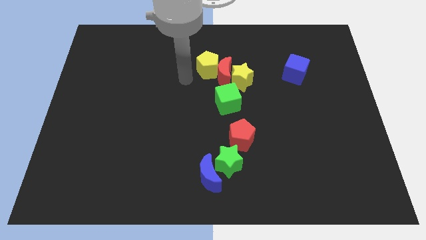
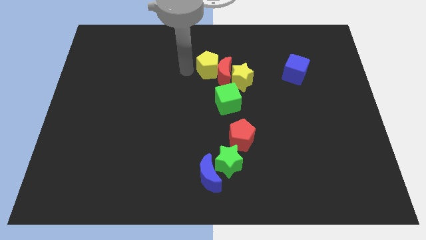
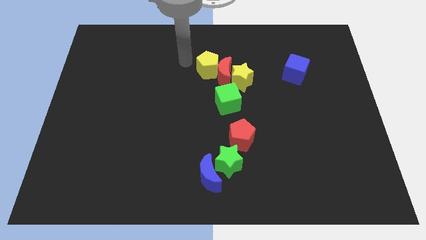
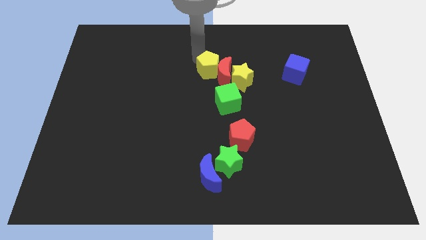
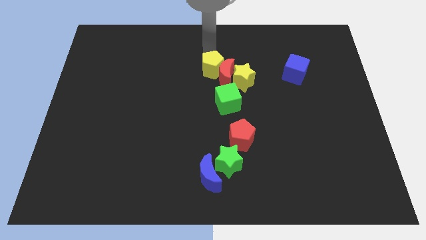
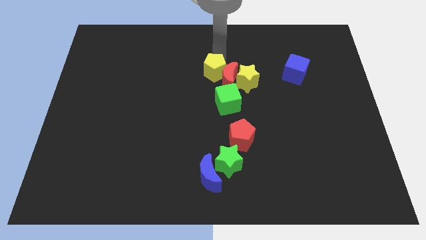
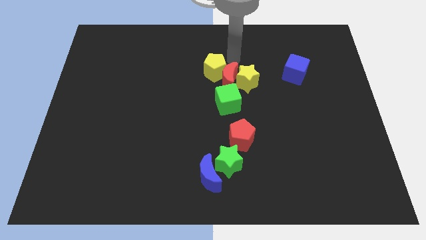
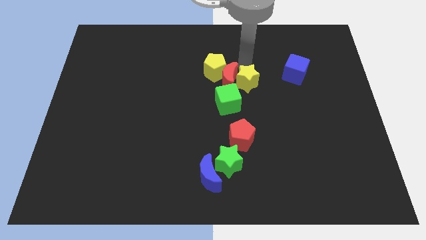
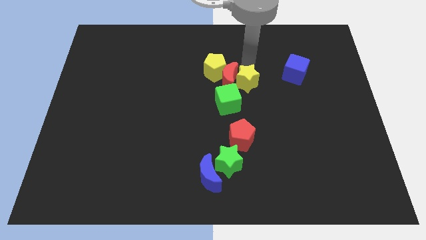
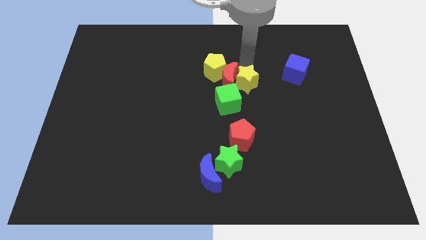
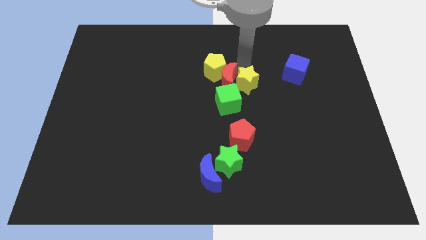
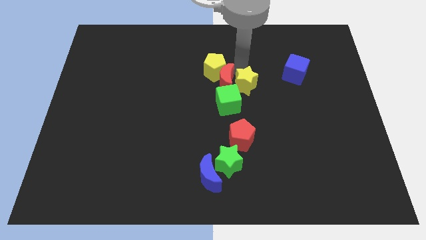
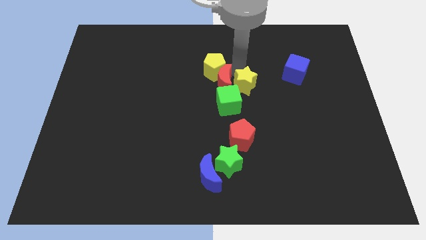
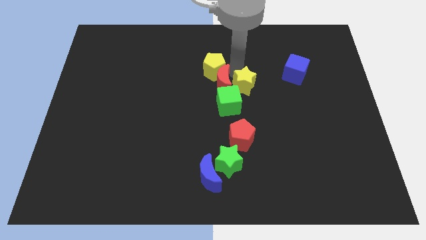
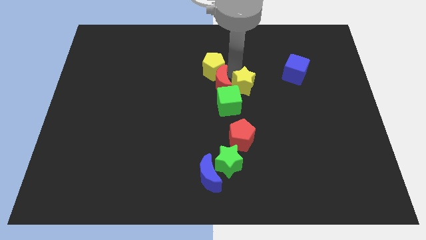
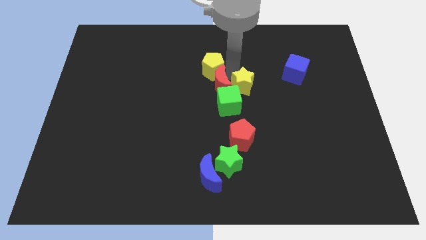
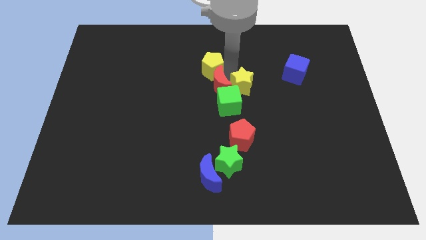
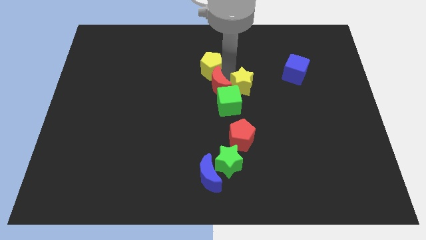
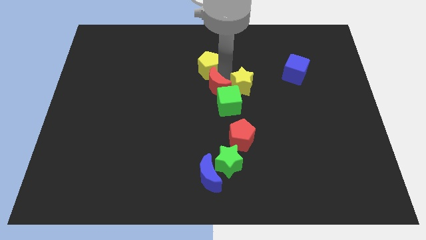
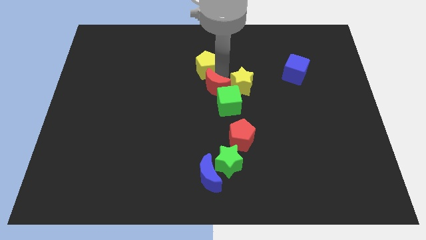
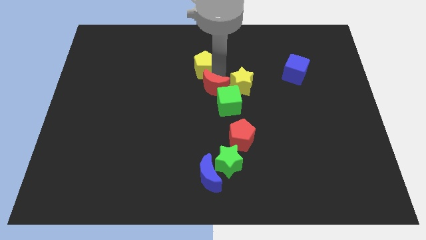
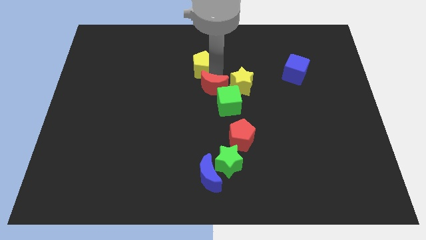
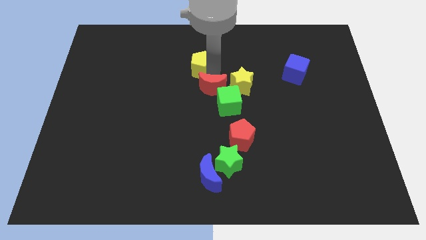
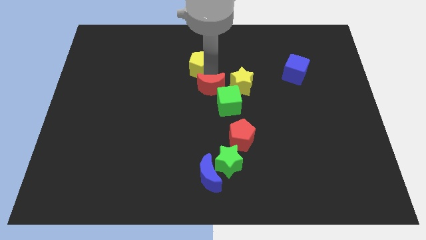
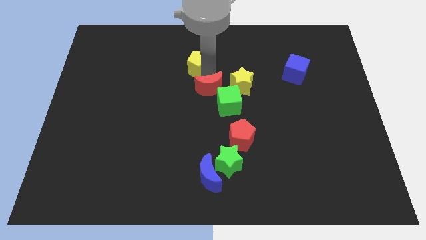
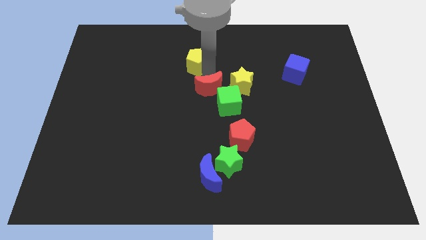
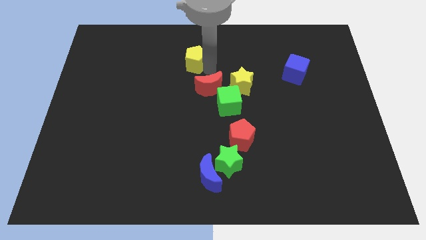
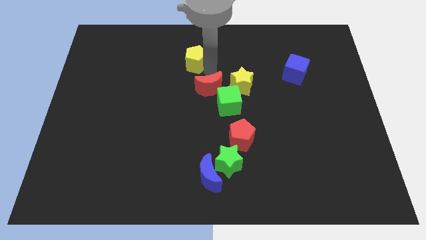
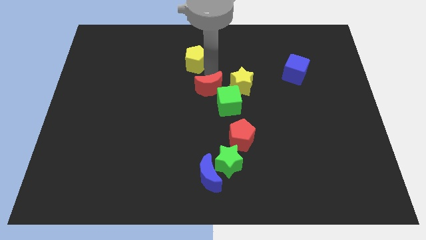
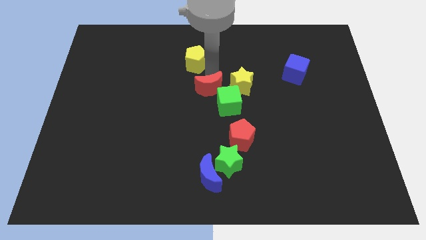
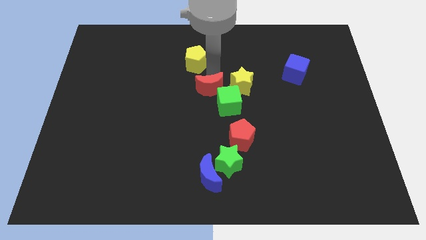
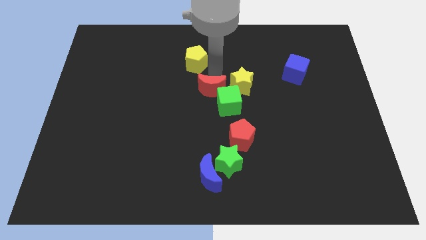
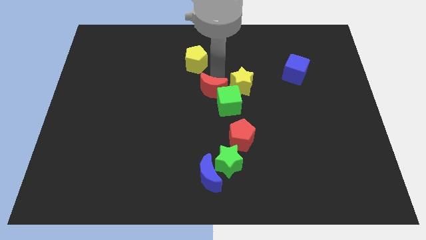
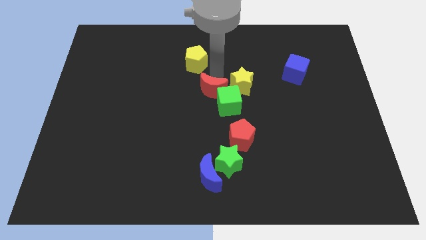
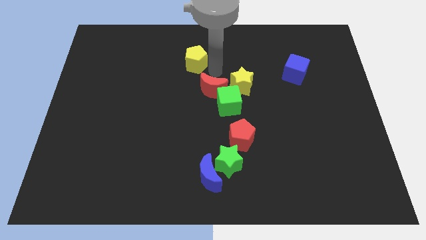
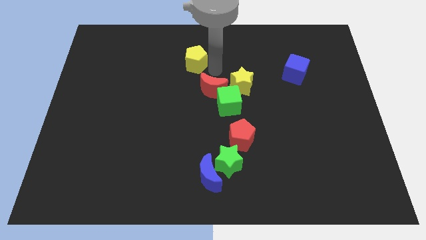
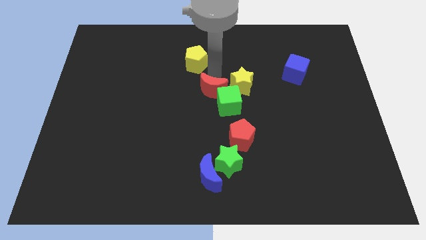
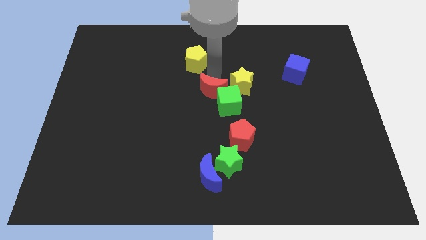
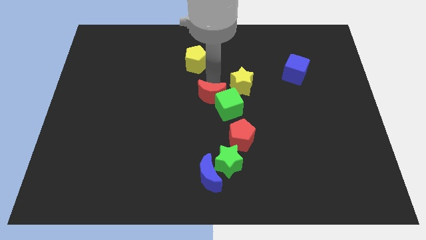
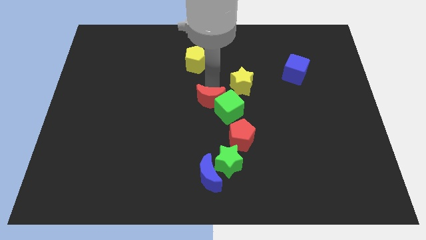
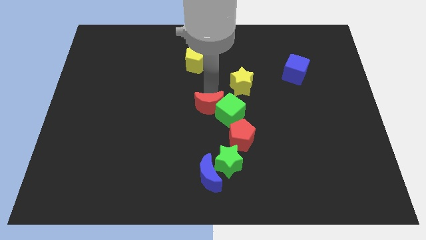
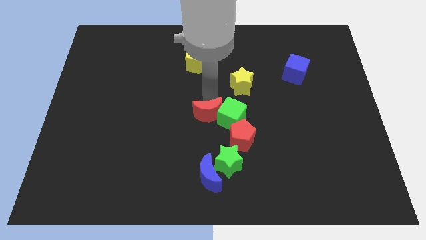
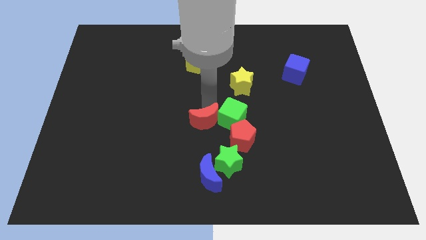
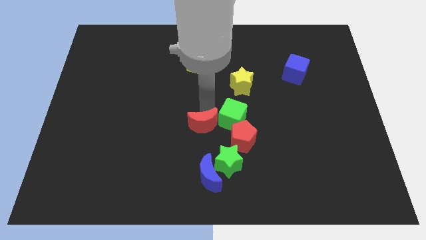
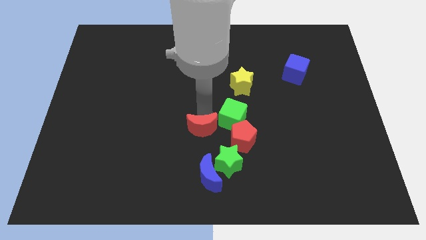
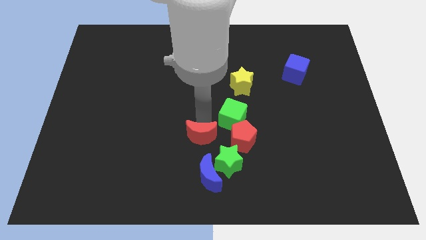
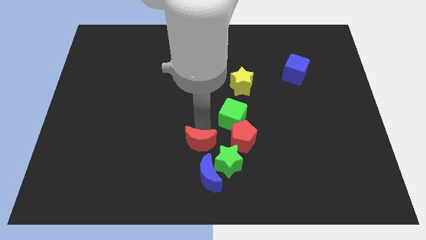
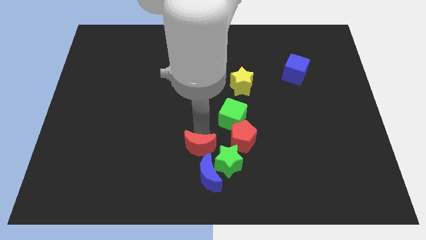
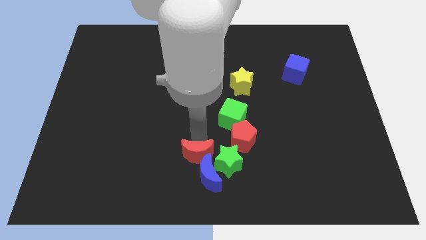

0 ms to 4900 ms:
put the red moon close to the blue moon

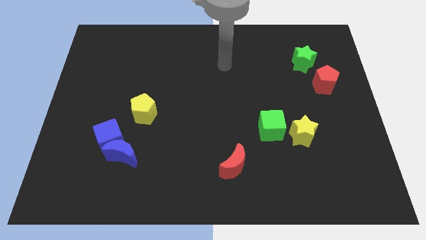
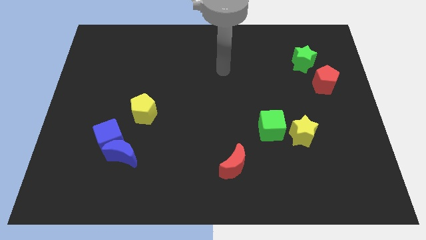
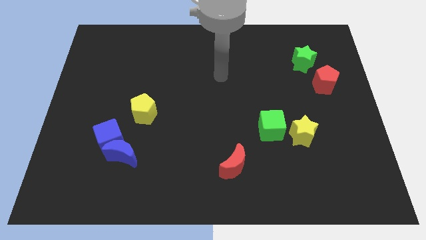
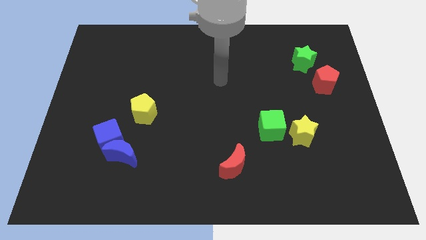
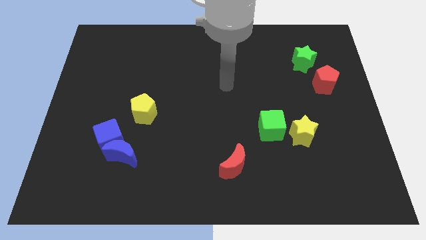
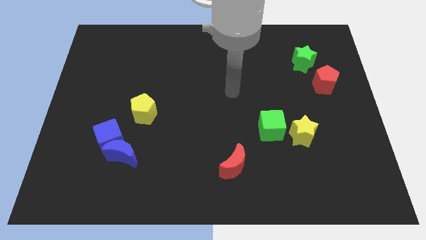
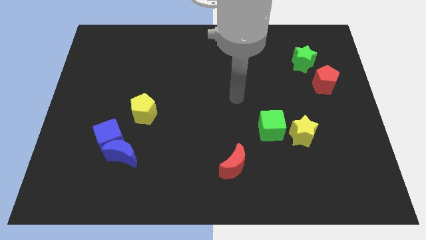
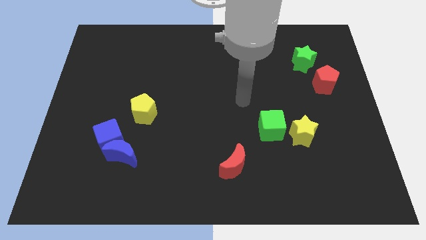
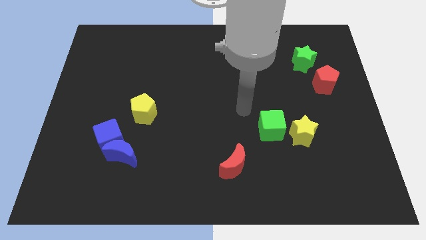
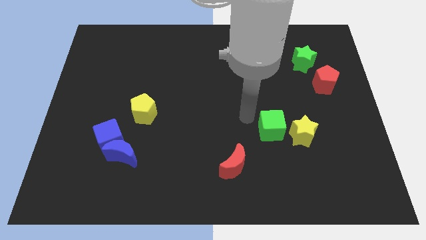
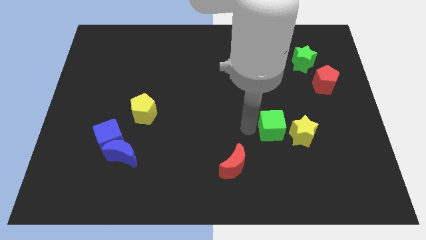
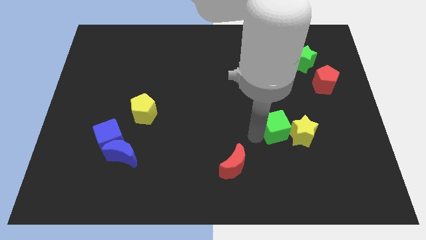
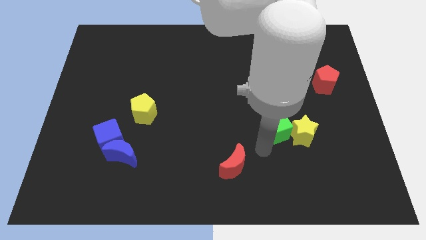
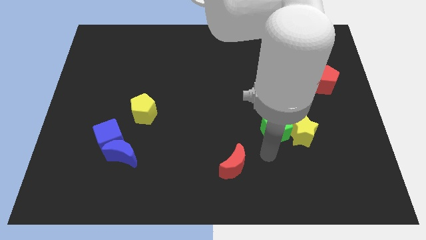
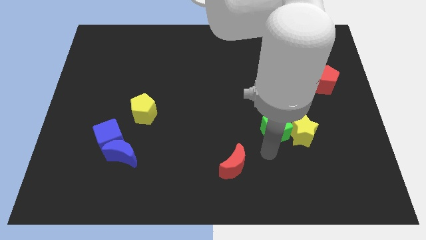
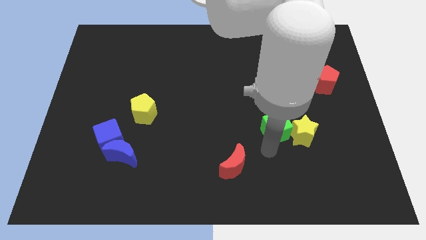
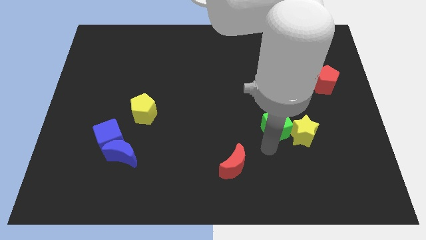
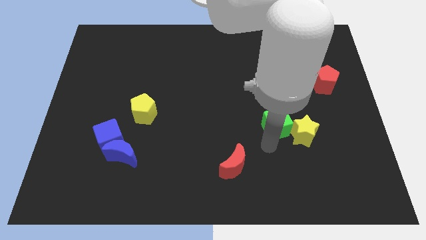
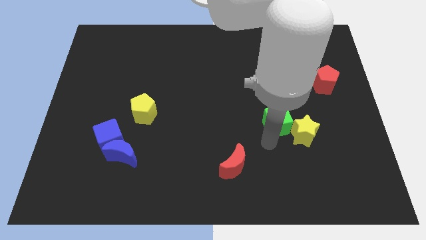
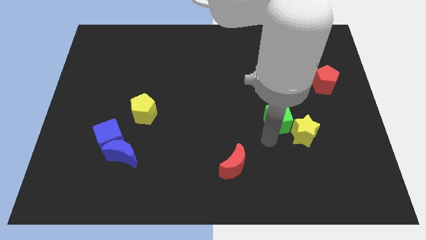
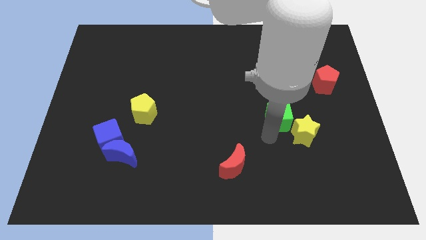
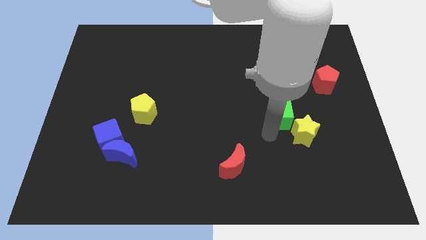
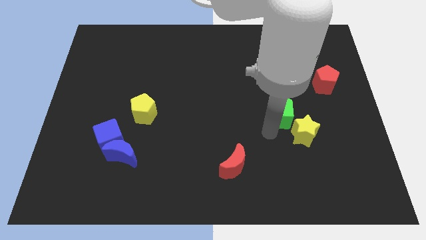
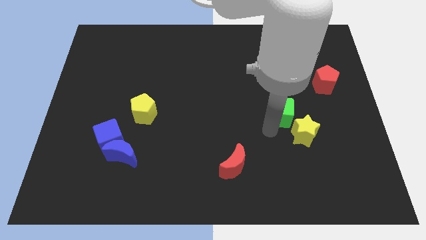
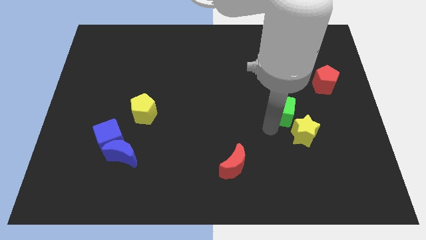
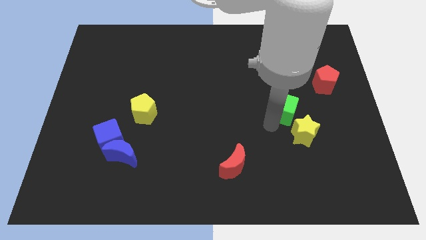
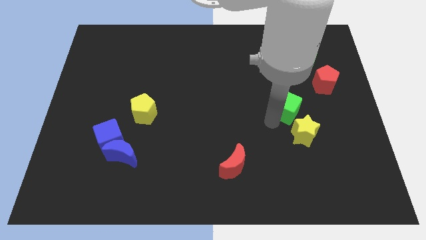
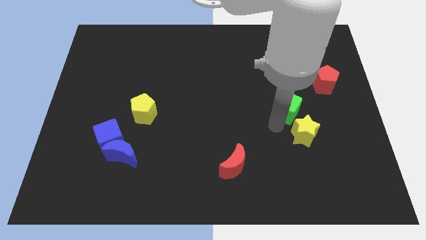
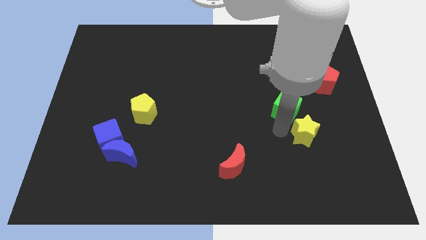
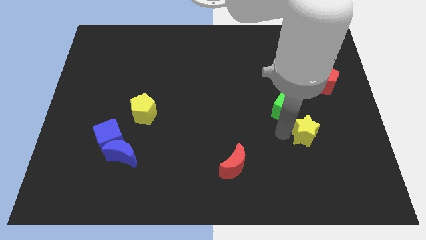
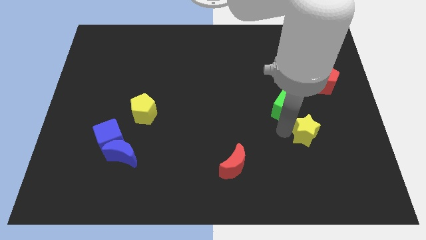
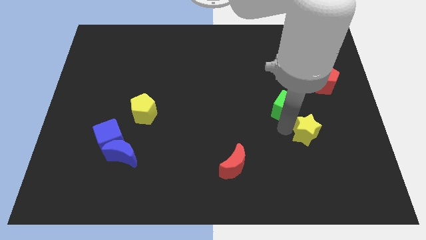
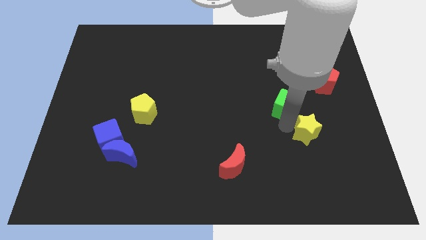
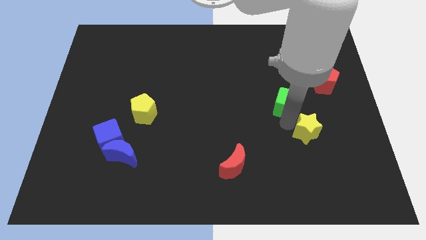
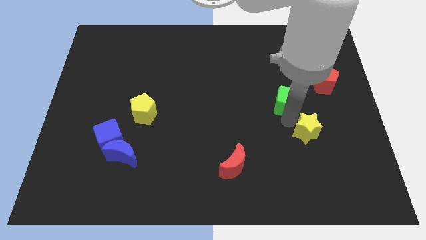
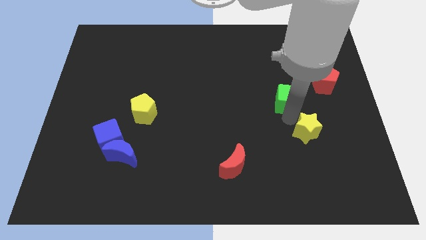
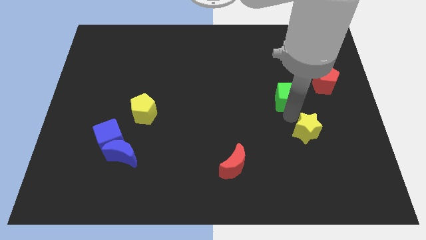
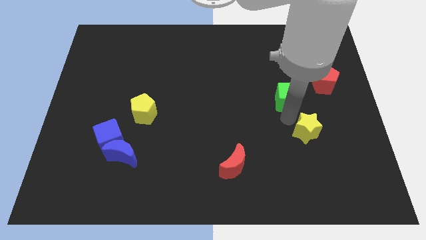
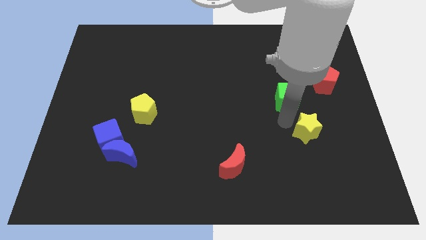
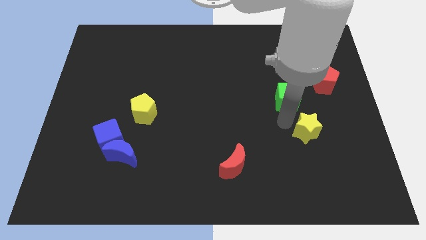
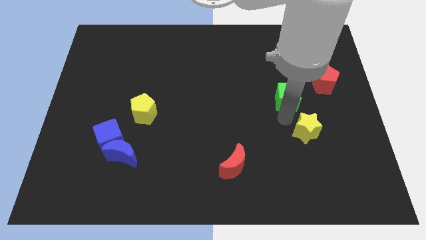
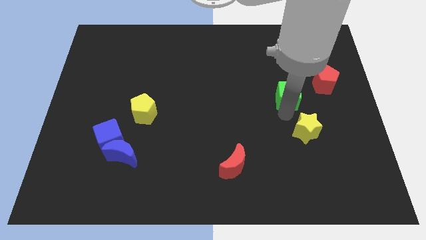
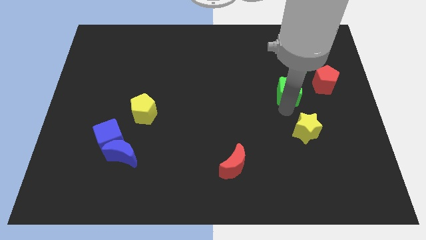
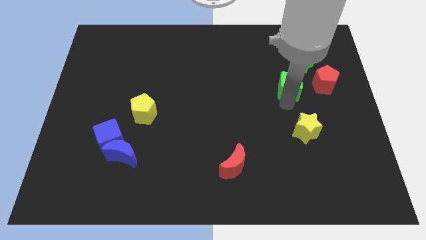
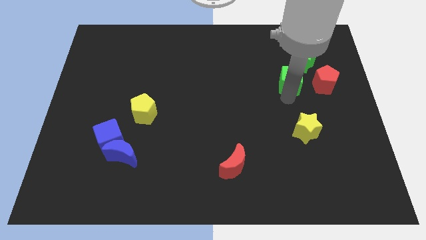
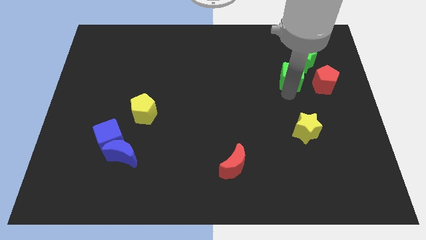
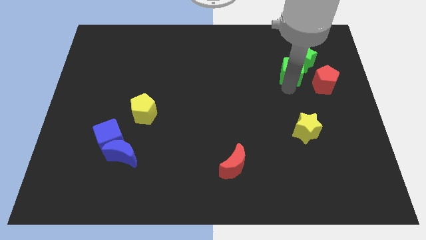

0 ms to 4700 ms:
push the green cube next to the green star
